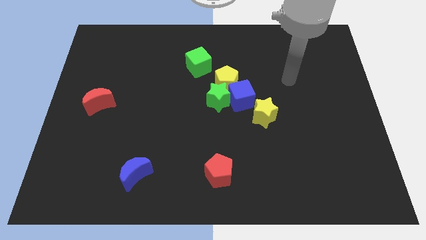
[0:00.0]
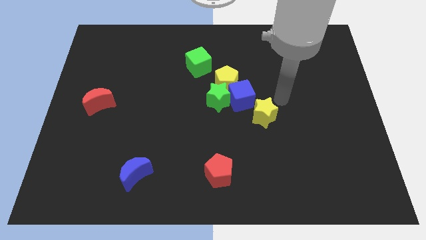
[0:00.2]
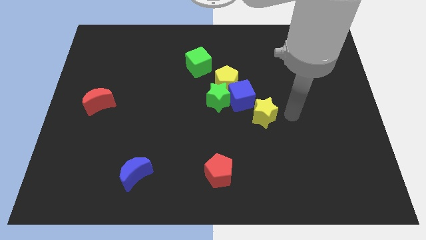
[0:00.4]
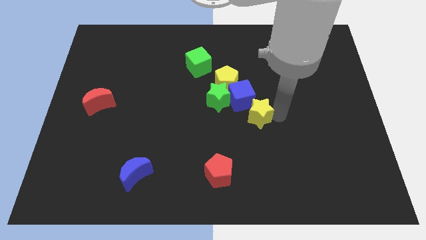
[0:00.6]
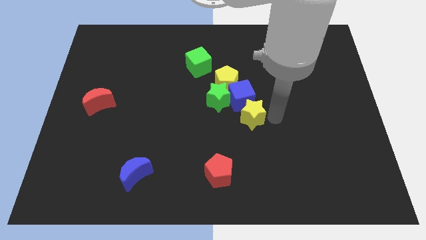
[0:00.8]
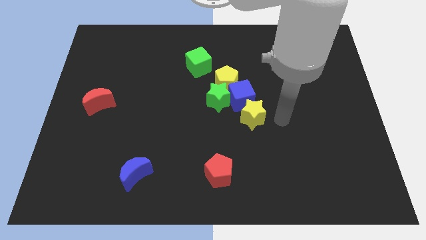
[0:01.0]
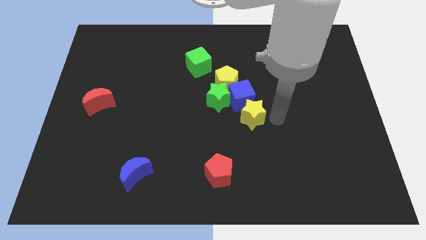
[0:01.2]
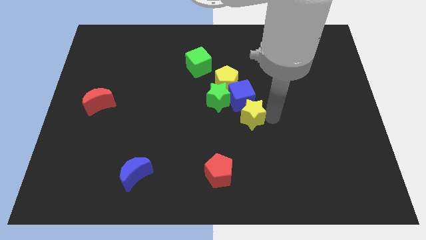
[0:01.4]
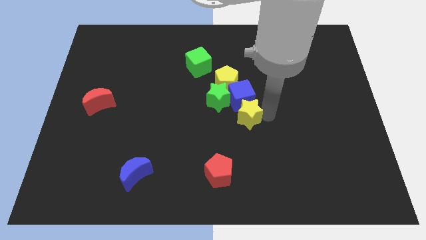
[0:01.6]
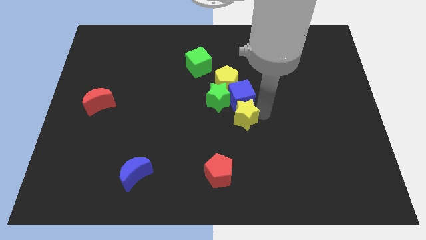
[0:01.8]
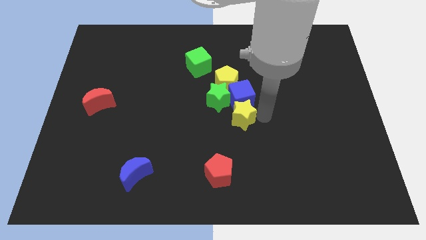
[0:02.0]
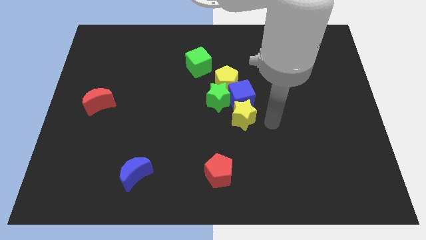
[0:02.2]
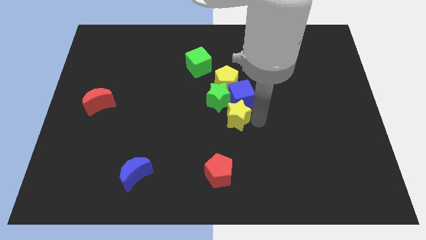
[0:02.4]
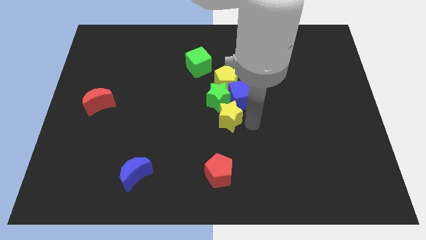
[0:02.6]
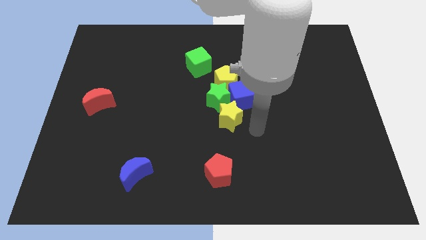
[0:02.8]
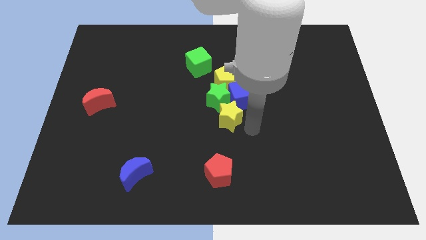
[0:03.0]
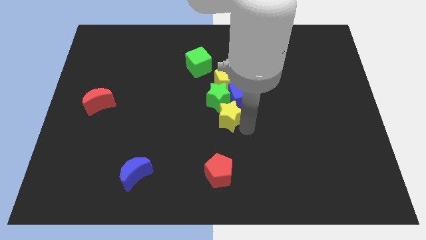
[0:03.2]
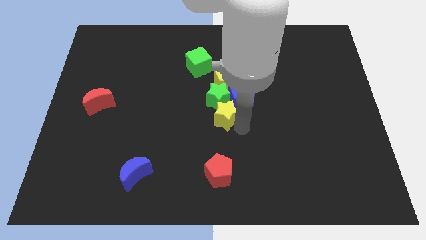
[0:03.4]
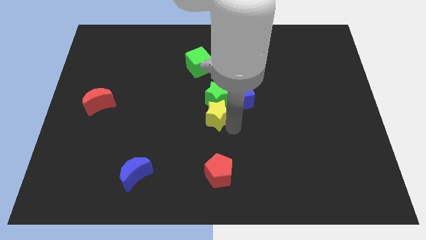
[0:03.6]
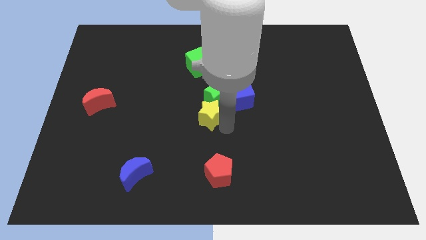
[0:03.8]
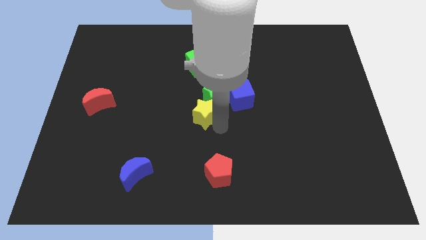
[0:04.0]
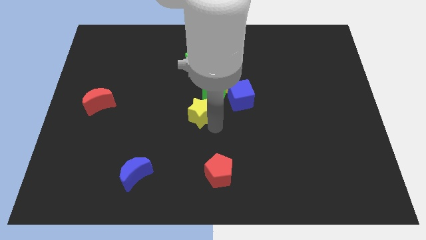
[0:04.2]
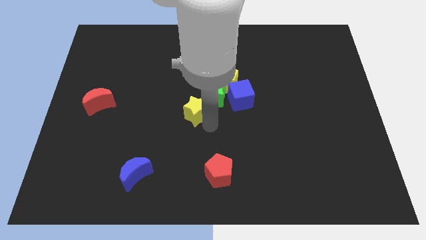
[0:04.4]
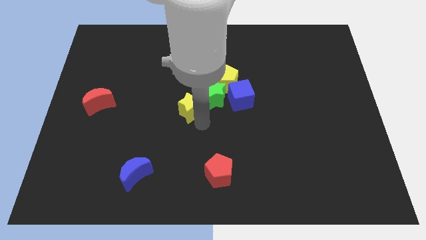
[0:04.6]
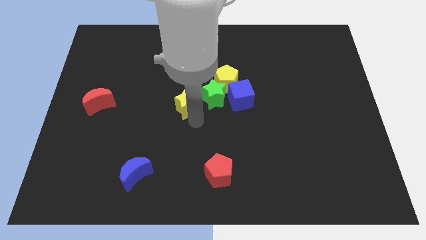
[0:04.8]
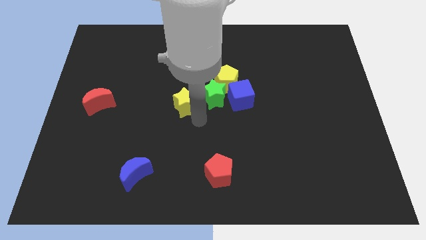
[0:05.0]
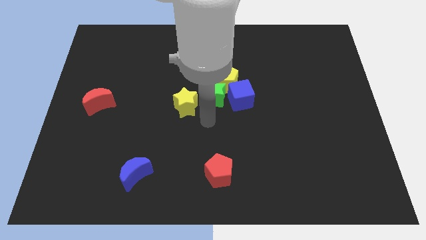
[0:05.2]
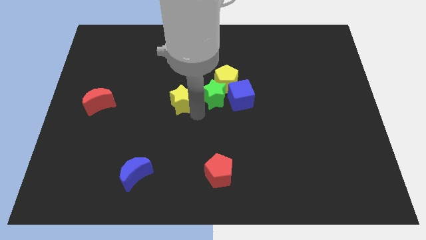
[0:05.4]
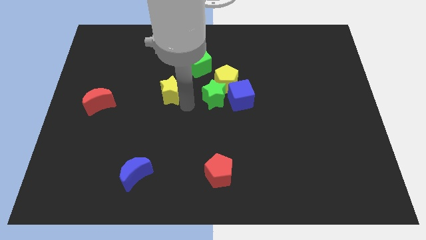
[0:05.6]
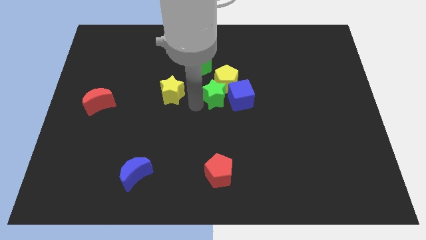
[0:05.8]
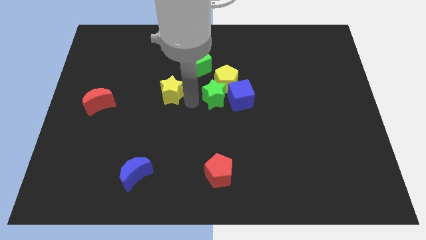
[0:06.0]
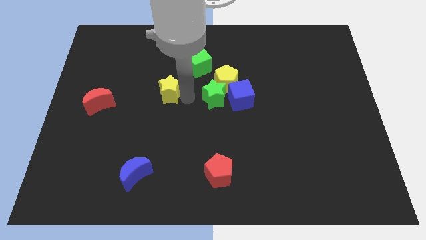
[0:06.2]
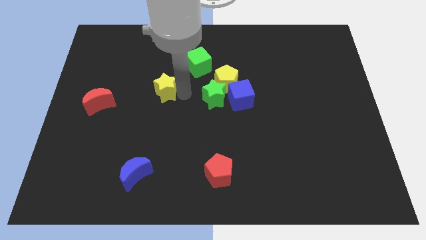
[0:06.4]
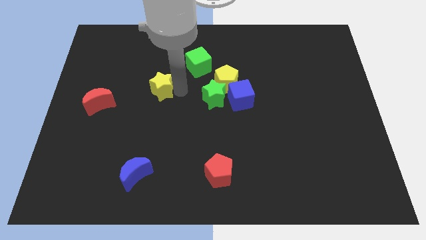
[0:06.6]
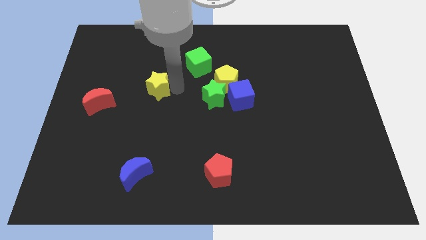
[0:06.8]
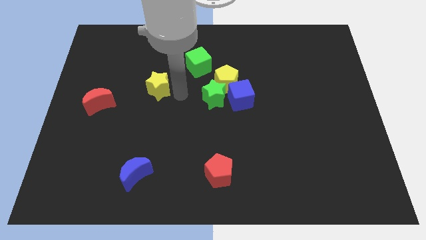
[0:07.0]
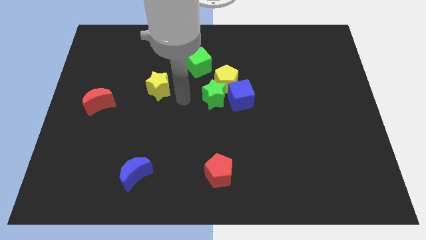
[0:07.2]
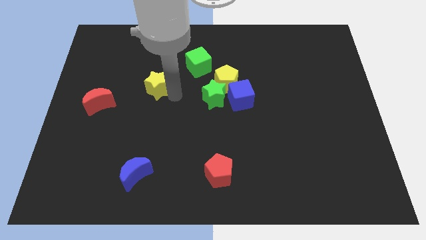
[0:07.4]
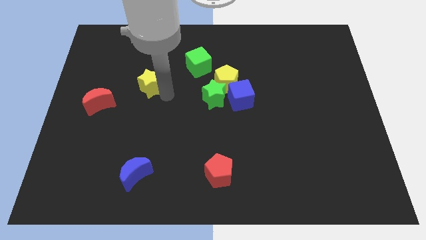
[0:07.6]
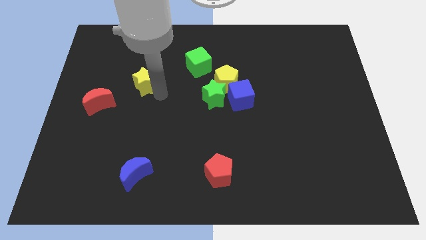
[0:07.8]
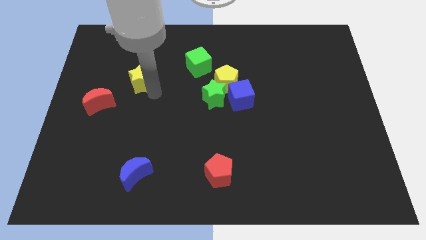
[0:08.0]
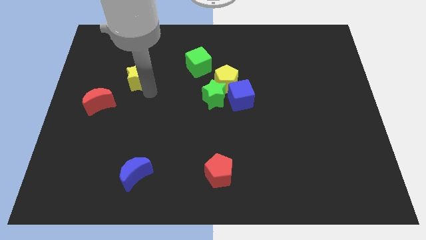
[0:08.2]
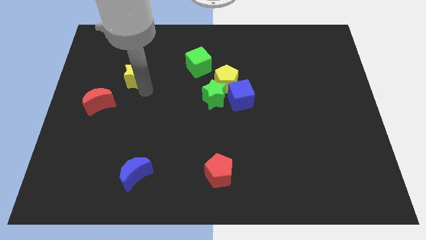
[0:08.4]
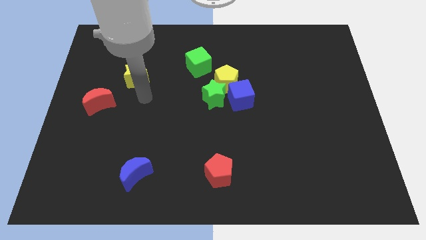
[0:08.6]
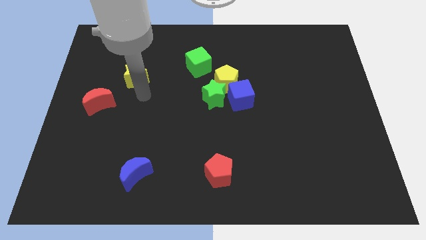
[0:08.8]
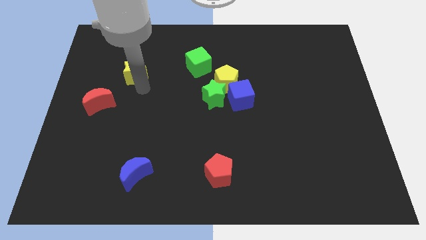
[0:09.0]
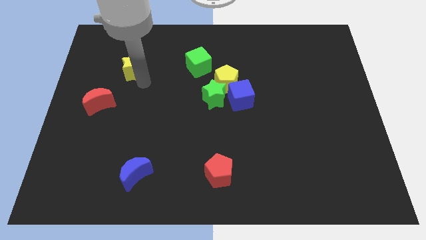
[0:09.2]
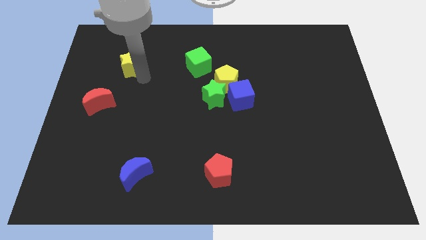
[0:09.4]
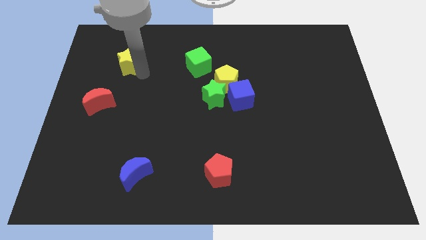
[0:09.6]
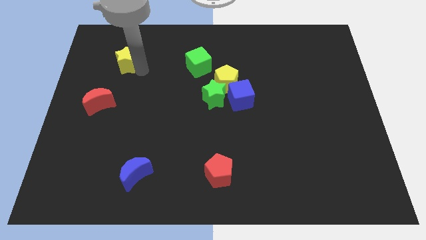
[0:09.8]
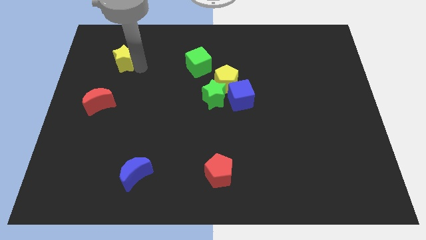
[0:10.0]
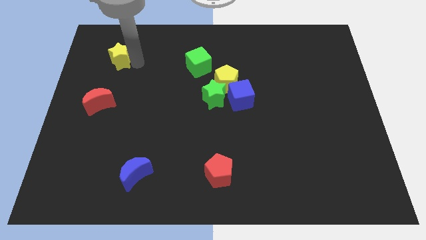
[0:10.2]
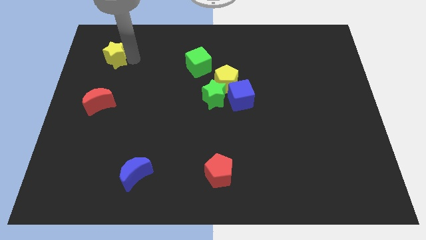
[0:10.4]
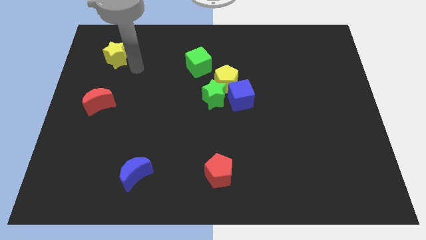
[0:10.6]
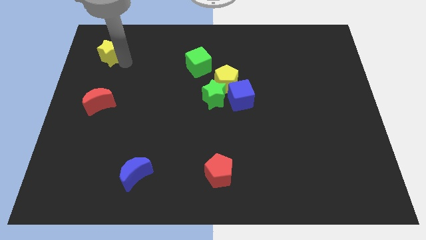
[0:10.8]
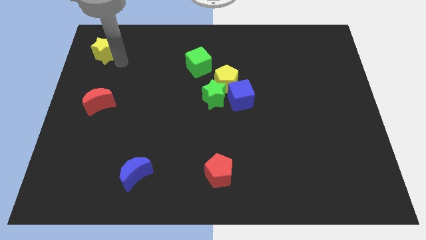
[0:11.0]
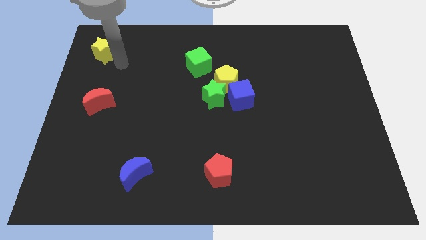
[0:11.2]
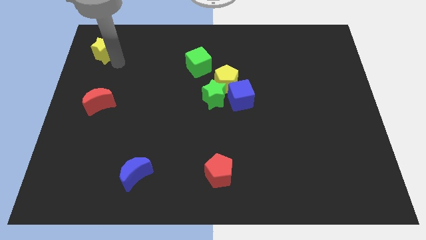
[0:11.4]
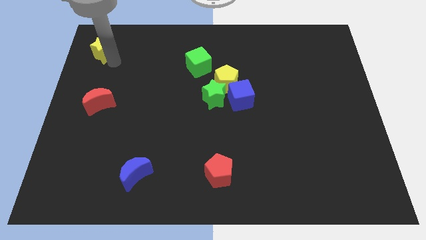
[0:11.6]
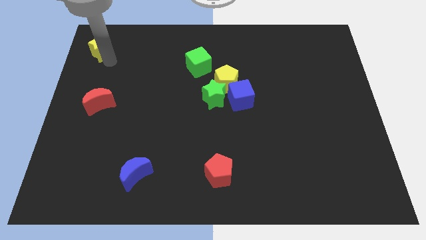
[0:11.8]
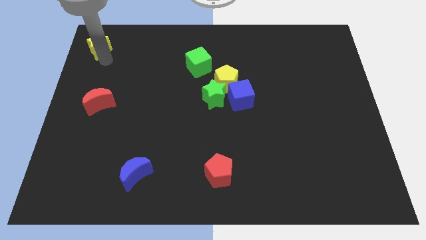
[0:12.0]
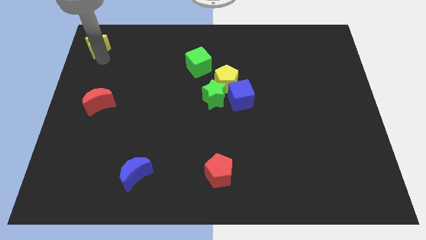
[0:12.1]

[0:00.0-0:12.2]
put the yellow star to the top left of the board
